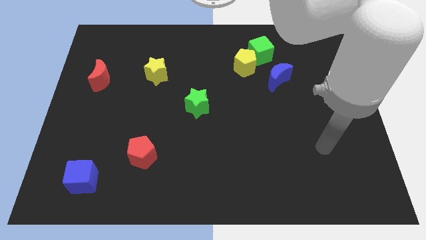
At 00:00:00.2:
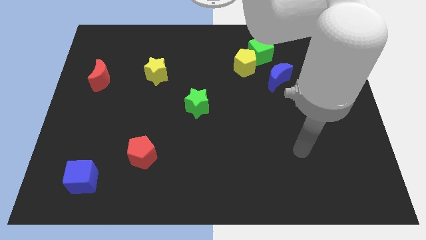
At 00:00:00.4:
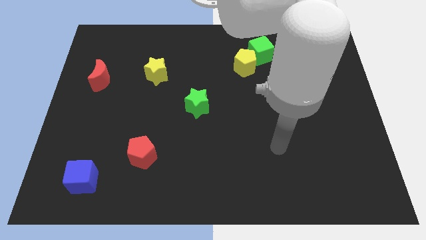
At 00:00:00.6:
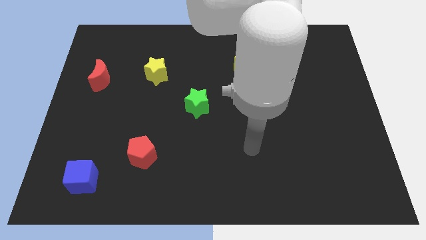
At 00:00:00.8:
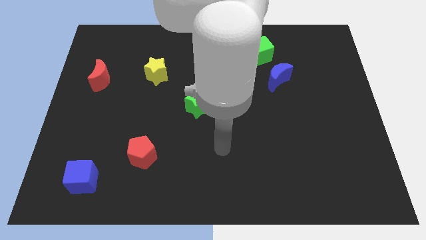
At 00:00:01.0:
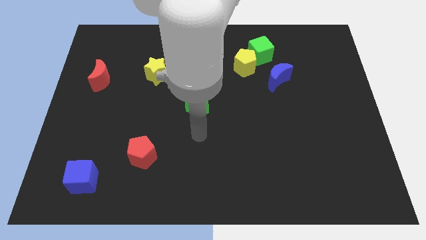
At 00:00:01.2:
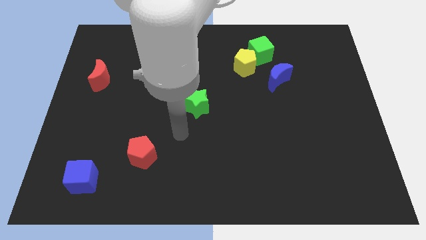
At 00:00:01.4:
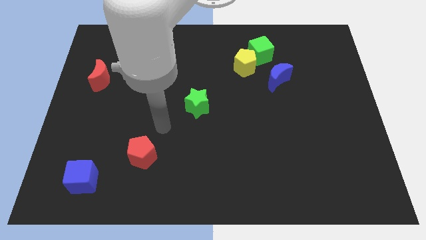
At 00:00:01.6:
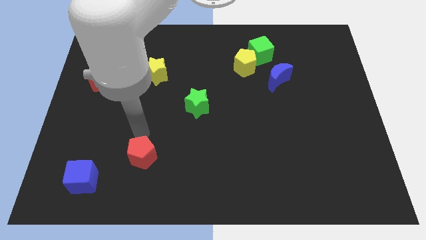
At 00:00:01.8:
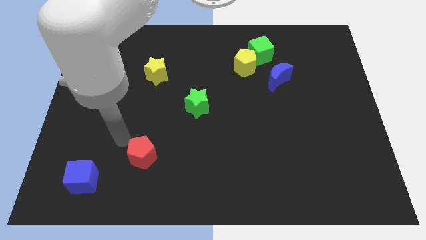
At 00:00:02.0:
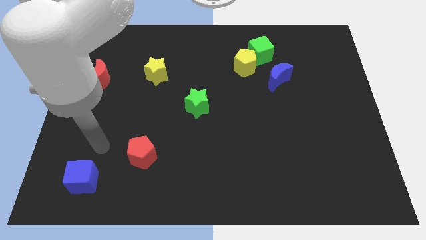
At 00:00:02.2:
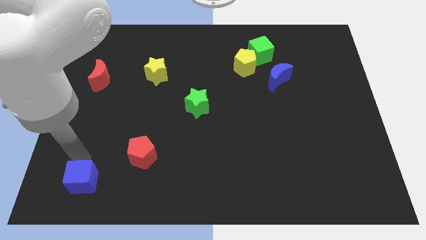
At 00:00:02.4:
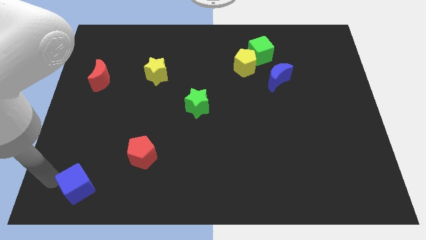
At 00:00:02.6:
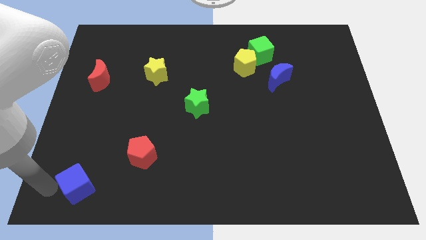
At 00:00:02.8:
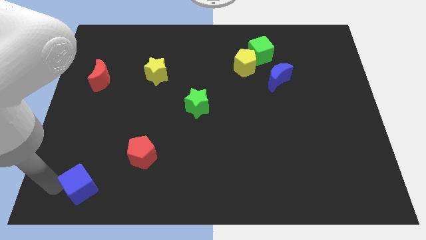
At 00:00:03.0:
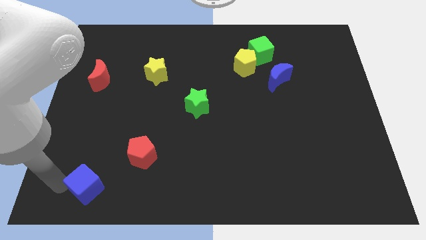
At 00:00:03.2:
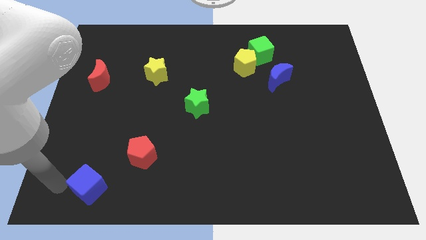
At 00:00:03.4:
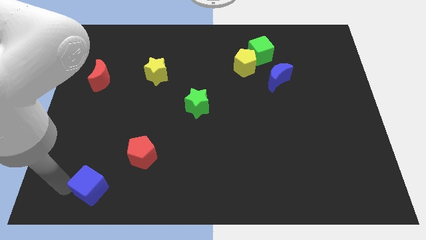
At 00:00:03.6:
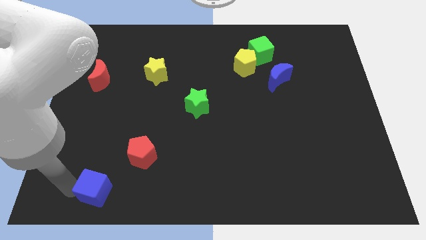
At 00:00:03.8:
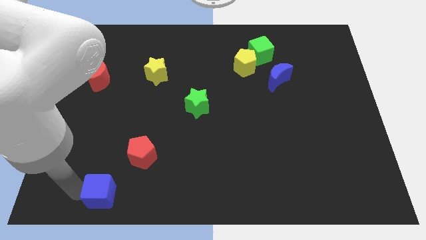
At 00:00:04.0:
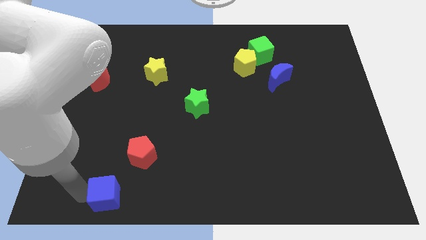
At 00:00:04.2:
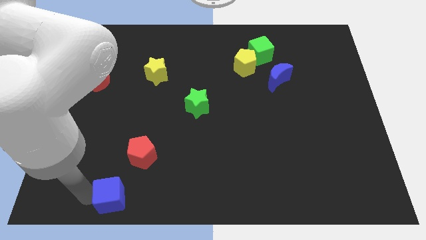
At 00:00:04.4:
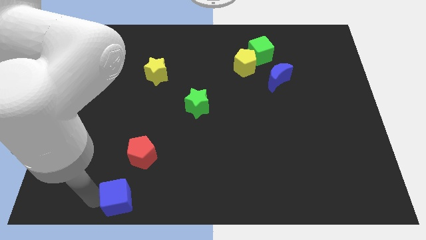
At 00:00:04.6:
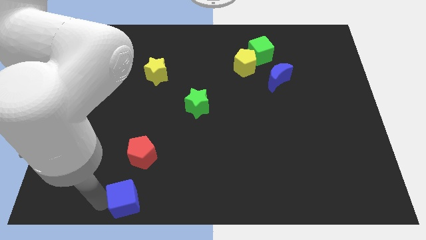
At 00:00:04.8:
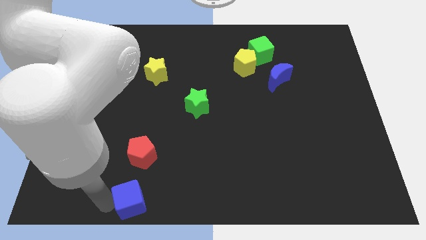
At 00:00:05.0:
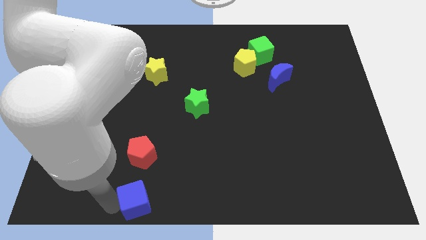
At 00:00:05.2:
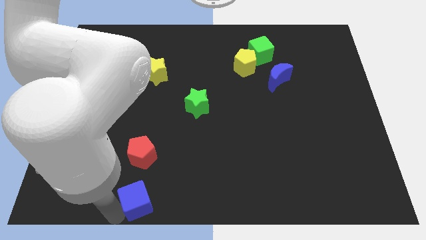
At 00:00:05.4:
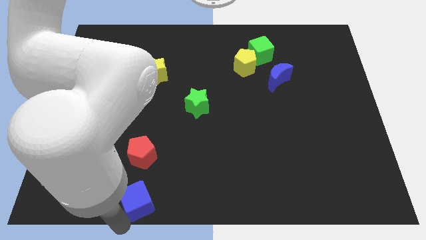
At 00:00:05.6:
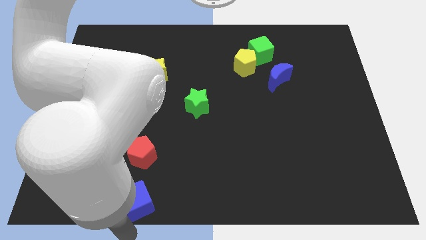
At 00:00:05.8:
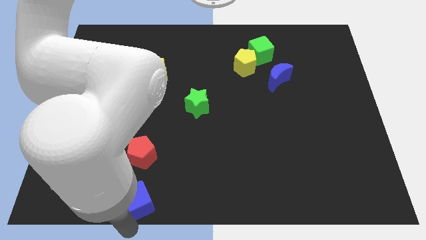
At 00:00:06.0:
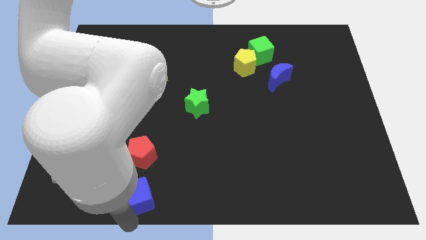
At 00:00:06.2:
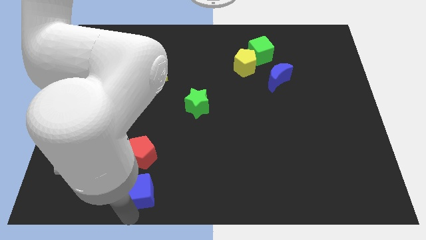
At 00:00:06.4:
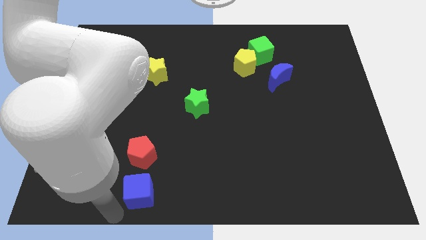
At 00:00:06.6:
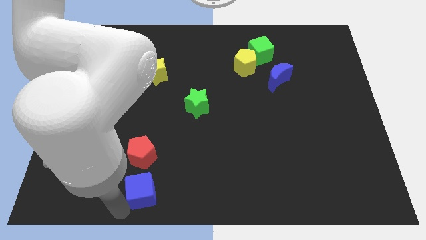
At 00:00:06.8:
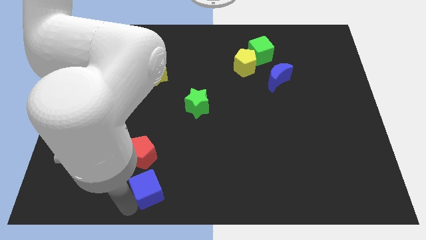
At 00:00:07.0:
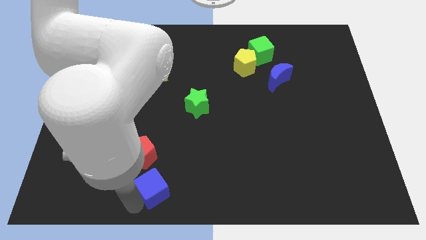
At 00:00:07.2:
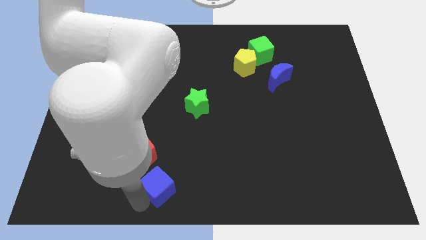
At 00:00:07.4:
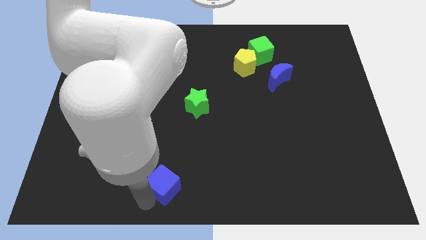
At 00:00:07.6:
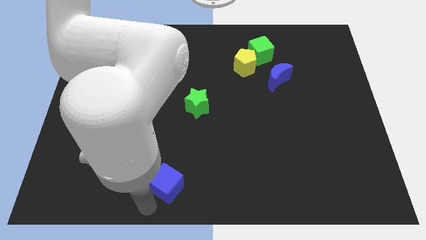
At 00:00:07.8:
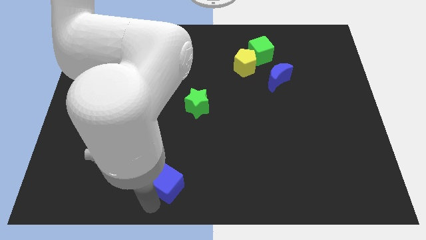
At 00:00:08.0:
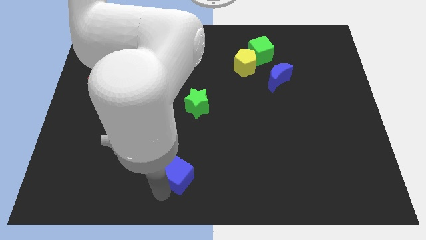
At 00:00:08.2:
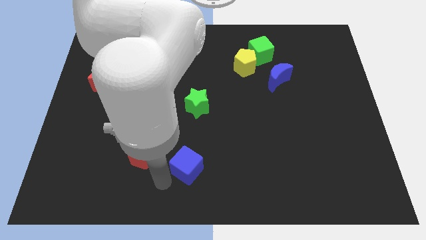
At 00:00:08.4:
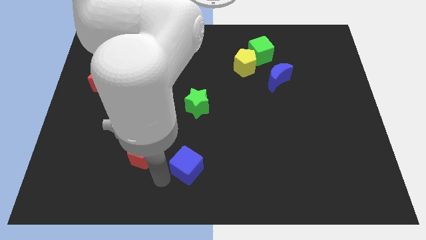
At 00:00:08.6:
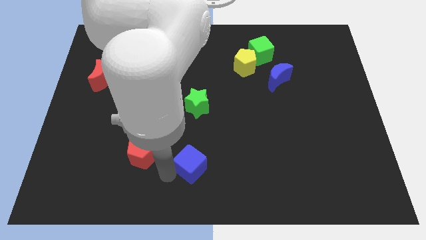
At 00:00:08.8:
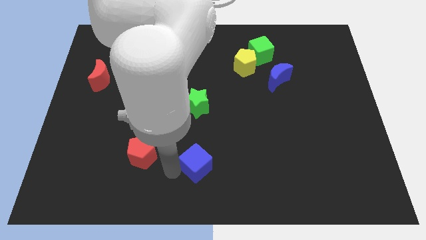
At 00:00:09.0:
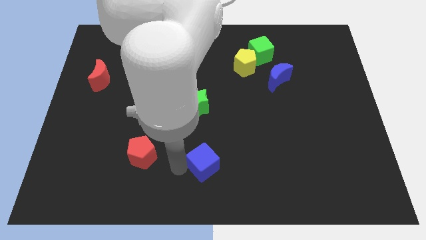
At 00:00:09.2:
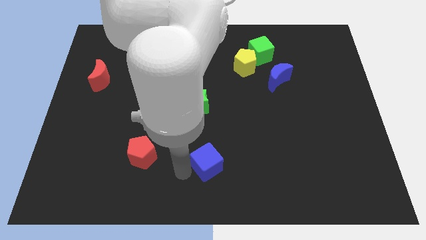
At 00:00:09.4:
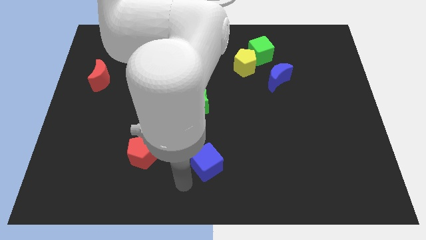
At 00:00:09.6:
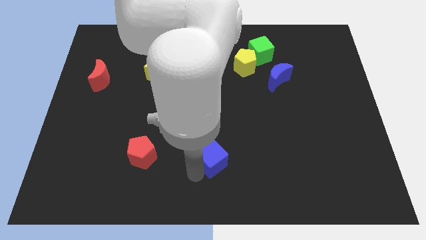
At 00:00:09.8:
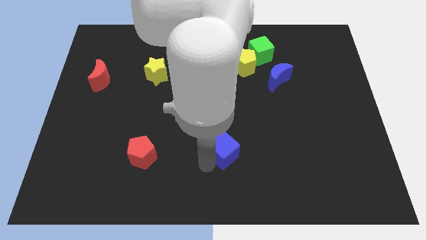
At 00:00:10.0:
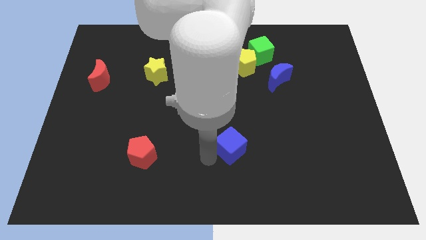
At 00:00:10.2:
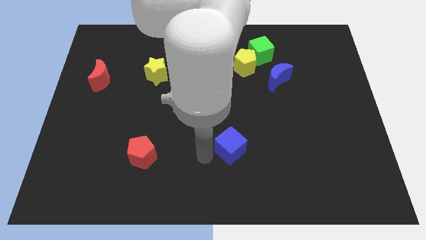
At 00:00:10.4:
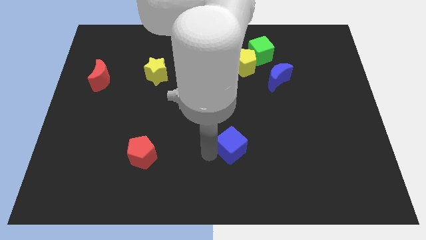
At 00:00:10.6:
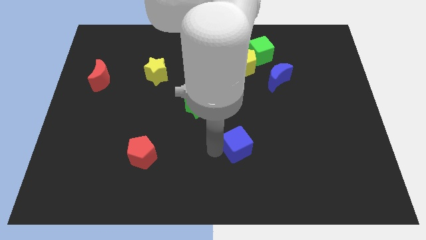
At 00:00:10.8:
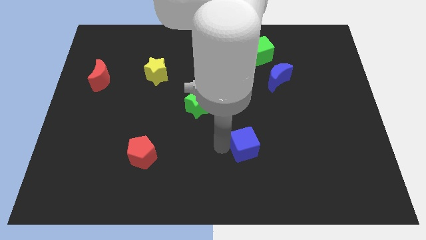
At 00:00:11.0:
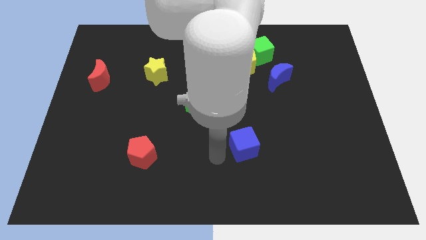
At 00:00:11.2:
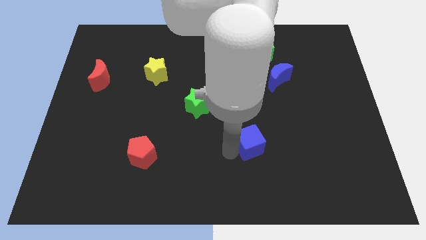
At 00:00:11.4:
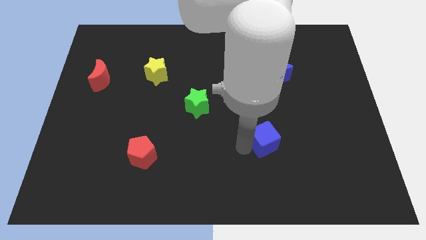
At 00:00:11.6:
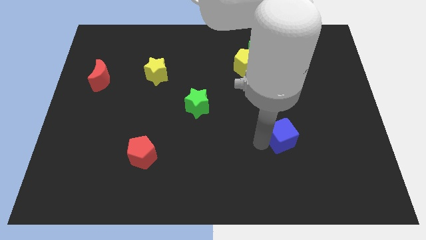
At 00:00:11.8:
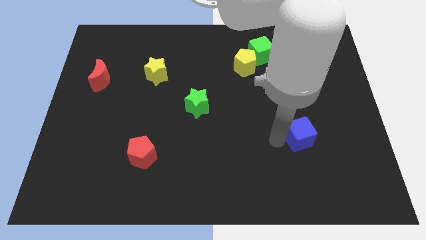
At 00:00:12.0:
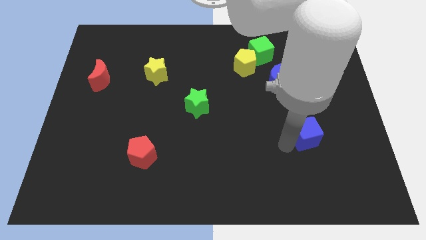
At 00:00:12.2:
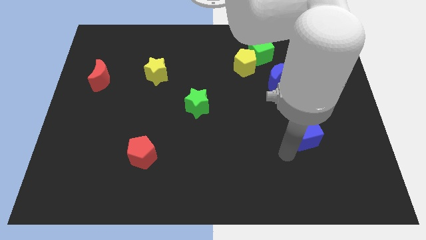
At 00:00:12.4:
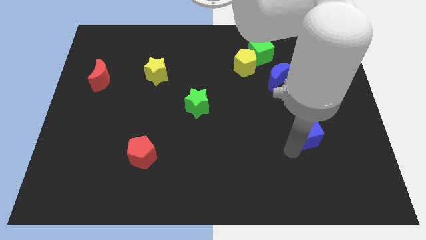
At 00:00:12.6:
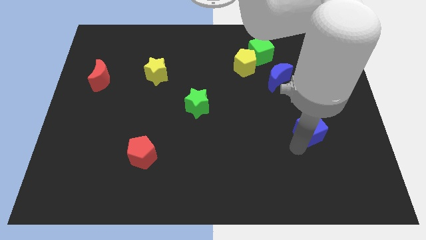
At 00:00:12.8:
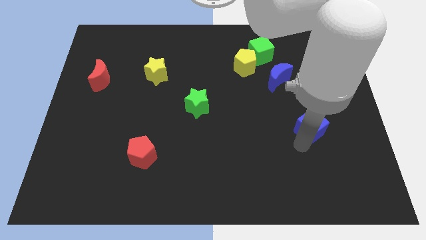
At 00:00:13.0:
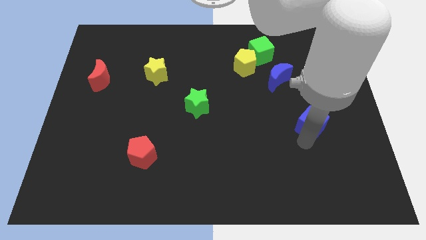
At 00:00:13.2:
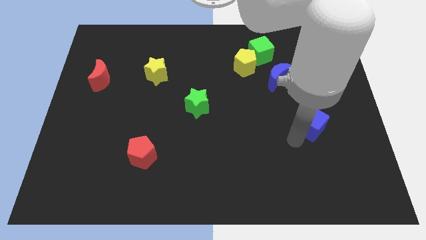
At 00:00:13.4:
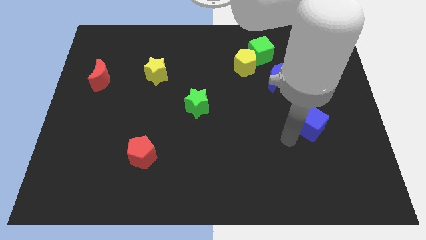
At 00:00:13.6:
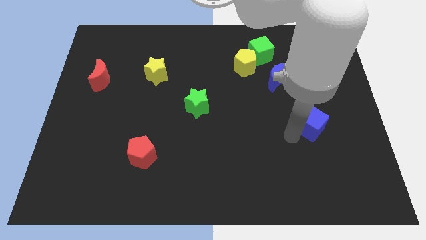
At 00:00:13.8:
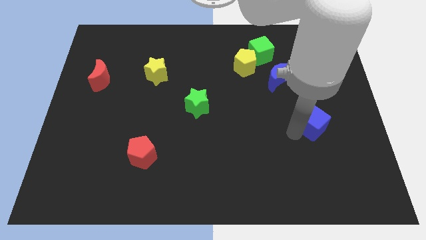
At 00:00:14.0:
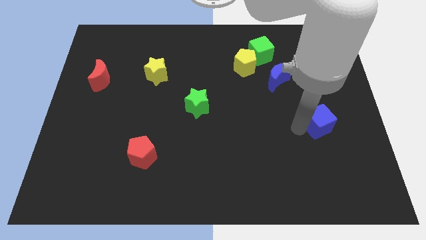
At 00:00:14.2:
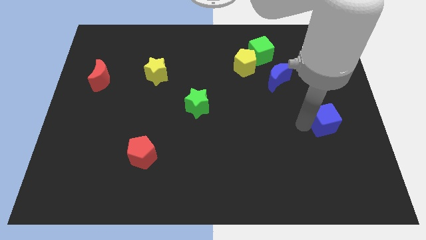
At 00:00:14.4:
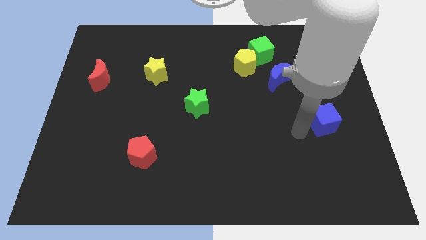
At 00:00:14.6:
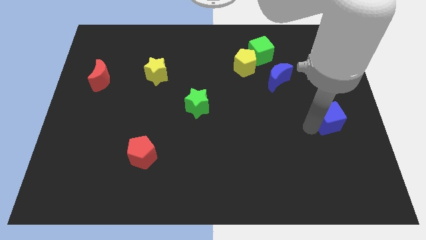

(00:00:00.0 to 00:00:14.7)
push the blue cube to the right side
